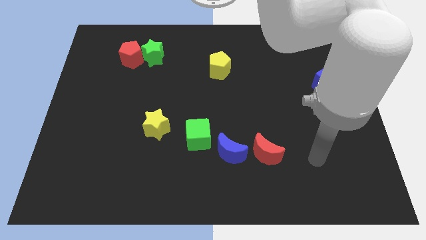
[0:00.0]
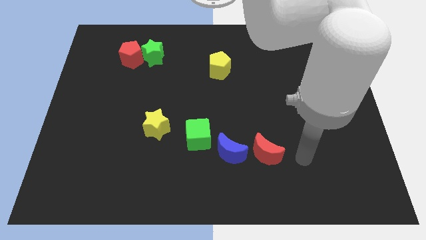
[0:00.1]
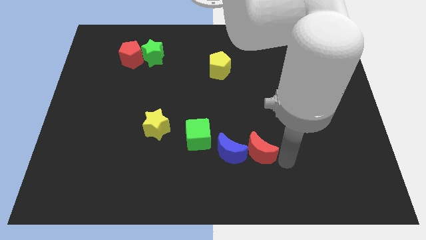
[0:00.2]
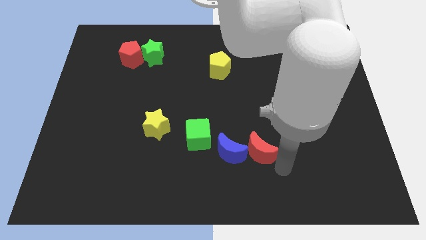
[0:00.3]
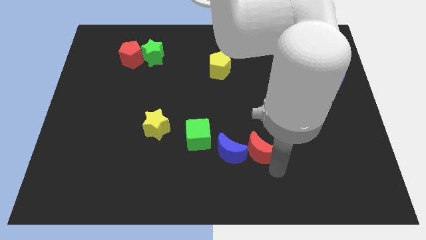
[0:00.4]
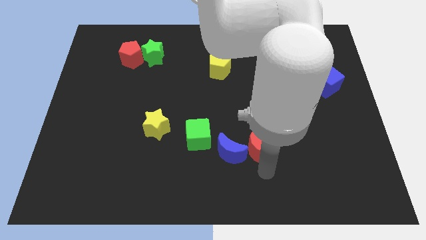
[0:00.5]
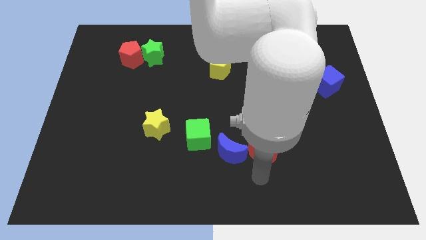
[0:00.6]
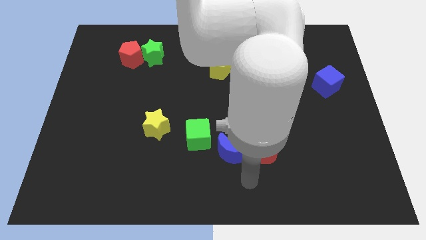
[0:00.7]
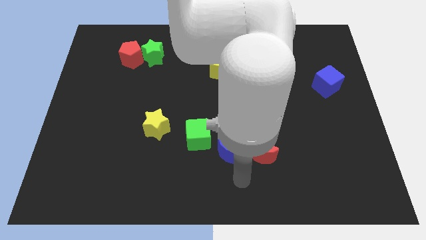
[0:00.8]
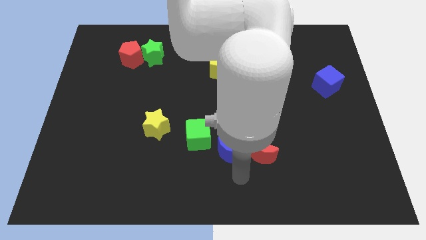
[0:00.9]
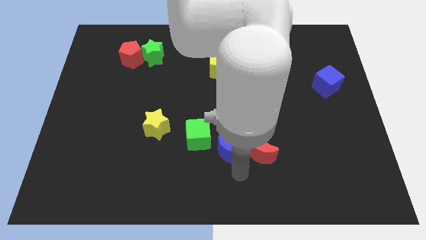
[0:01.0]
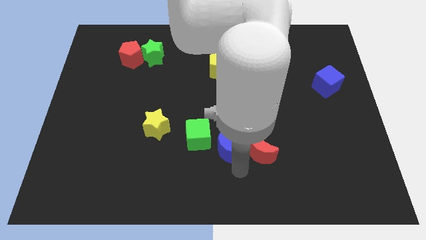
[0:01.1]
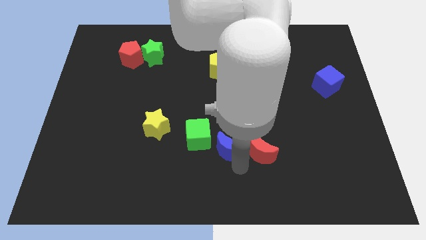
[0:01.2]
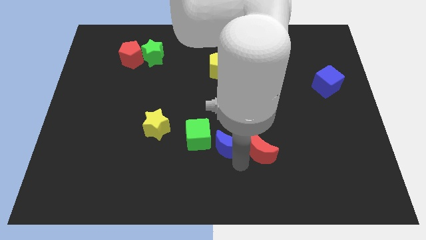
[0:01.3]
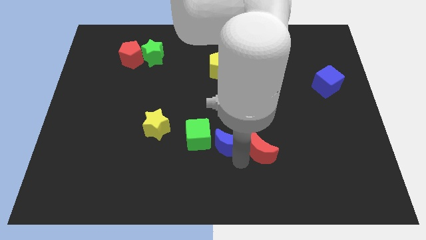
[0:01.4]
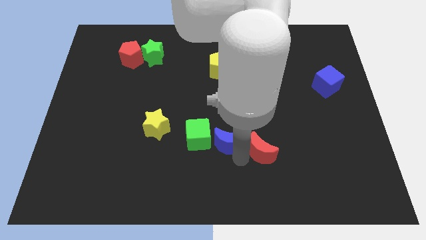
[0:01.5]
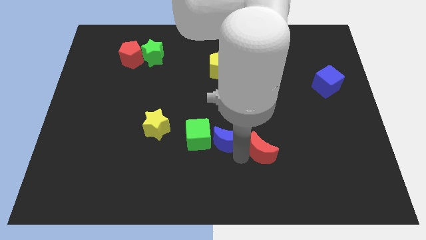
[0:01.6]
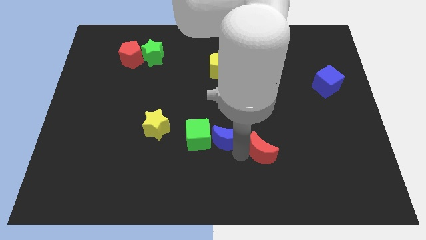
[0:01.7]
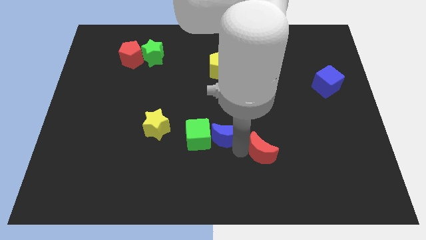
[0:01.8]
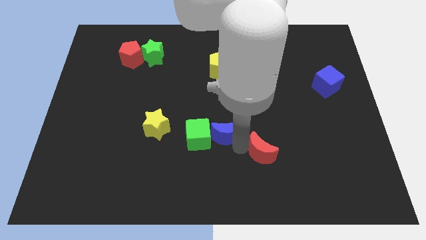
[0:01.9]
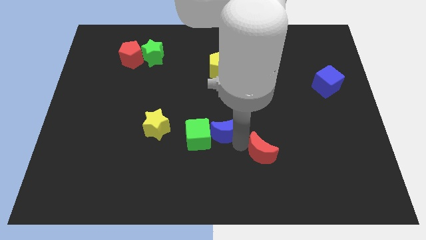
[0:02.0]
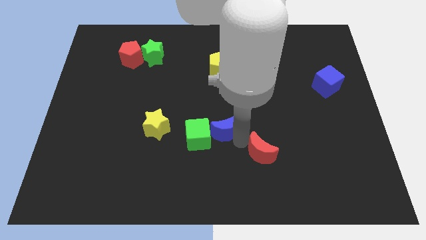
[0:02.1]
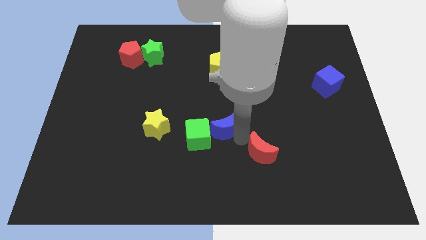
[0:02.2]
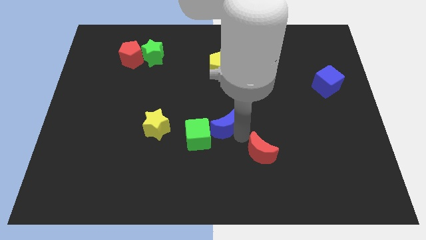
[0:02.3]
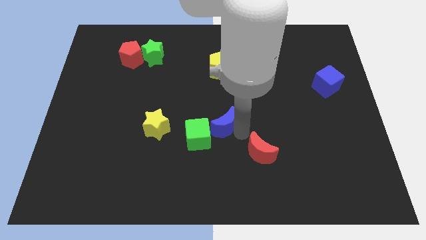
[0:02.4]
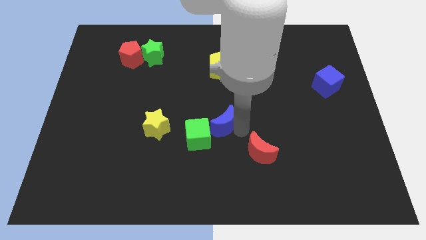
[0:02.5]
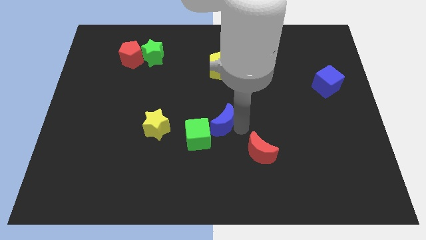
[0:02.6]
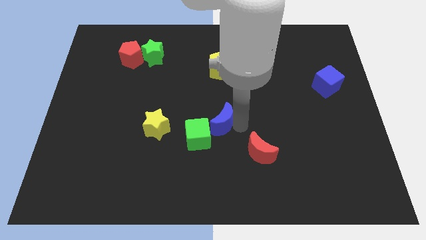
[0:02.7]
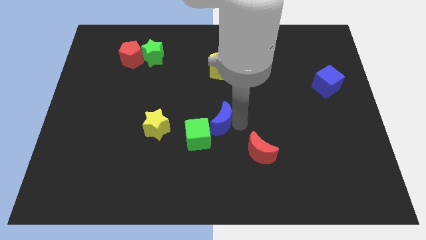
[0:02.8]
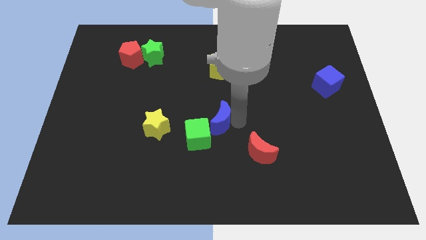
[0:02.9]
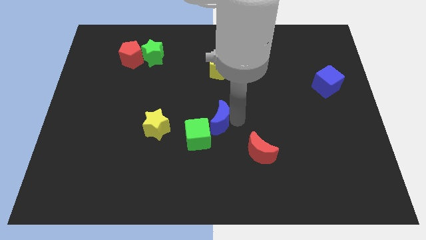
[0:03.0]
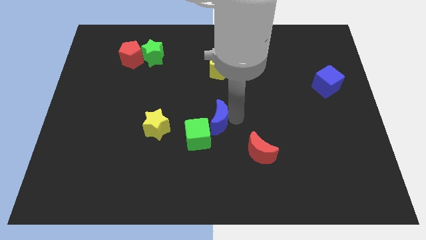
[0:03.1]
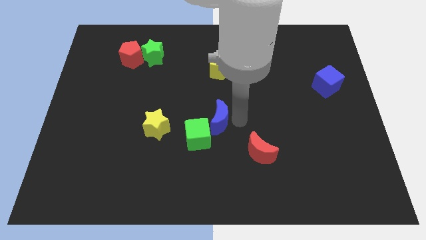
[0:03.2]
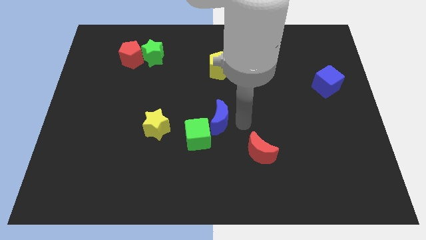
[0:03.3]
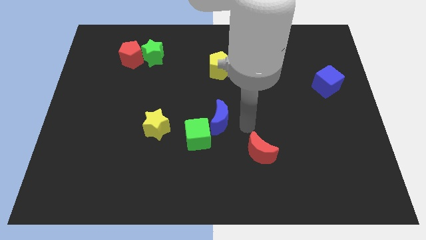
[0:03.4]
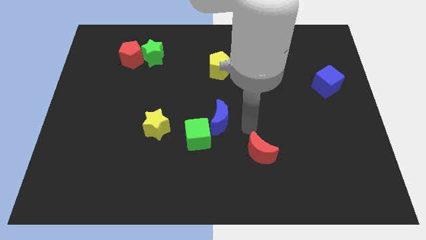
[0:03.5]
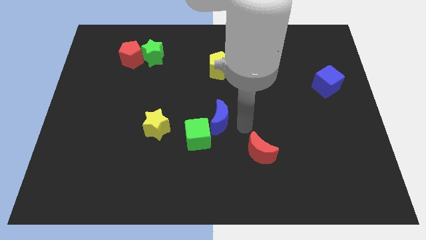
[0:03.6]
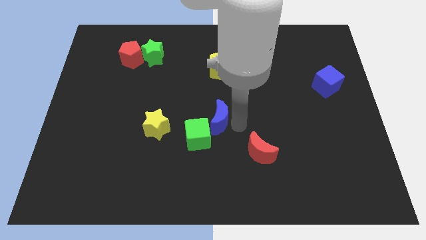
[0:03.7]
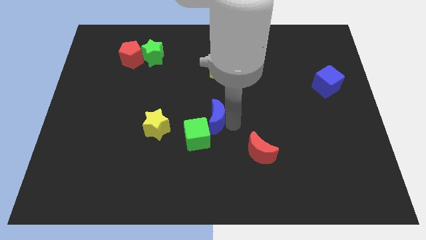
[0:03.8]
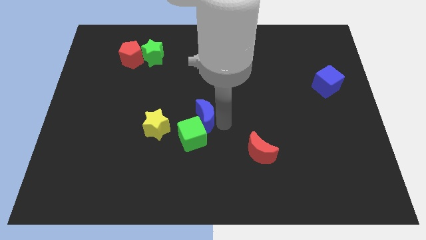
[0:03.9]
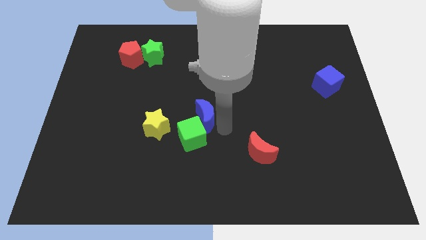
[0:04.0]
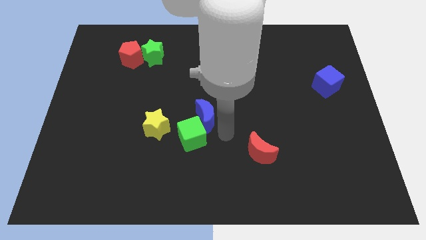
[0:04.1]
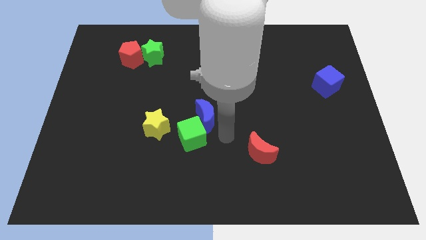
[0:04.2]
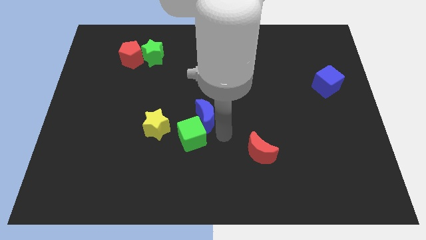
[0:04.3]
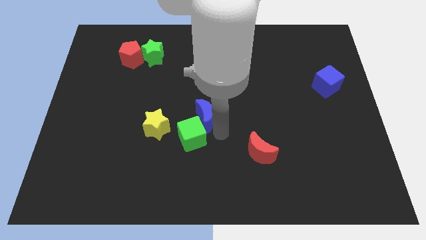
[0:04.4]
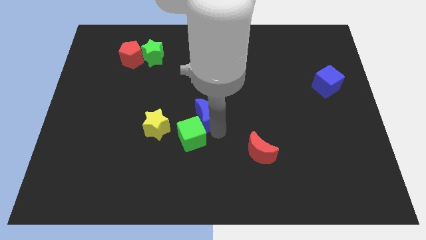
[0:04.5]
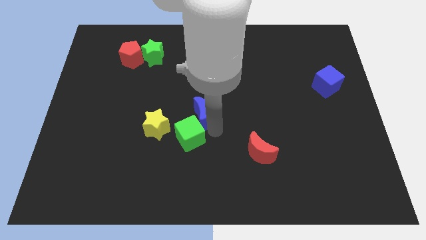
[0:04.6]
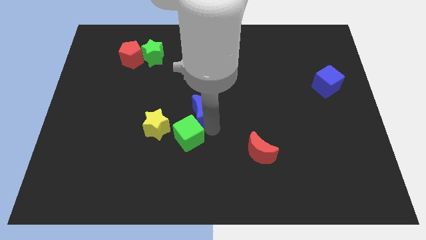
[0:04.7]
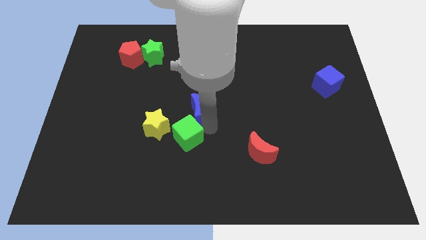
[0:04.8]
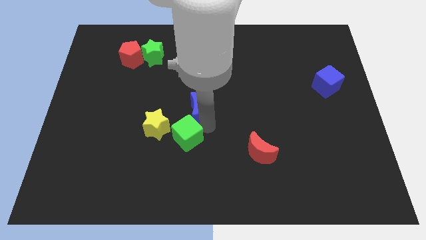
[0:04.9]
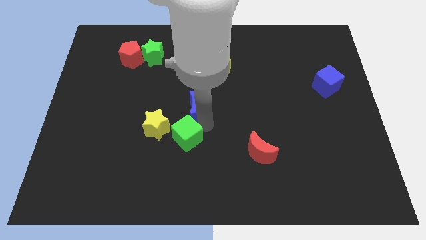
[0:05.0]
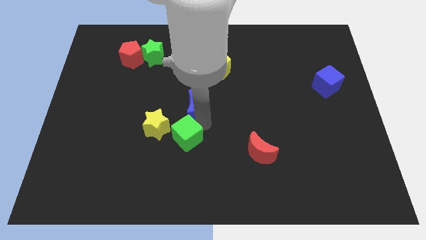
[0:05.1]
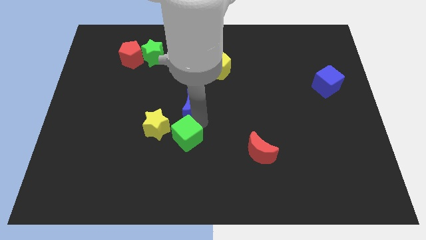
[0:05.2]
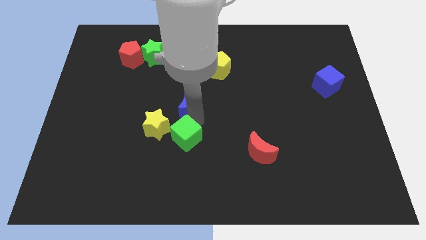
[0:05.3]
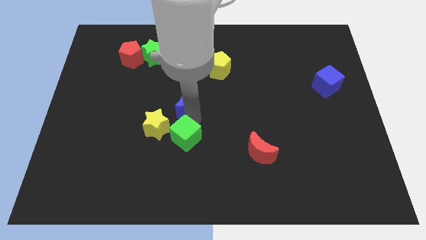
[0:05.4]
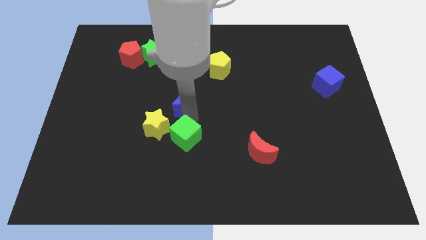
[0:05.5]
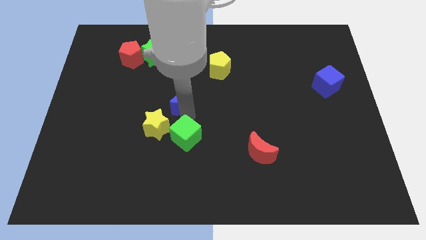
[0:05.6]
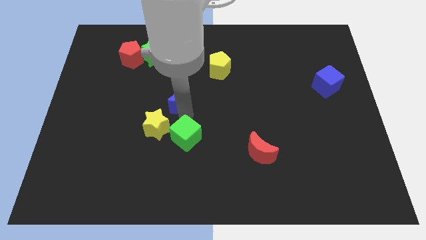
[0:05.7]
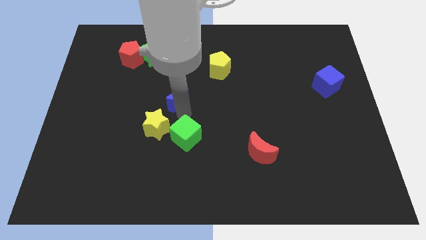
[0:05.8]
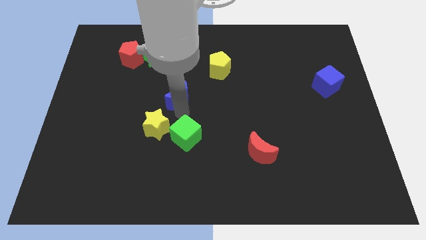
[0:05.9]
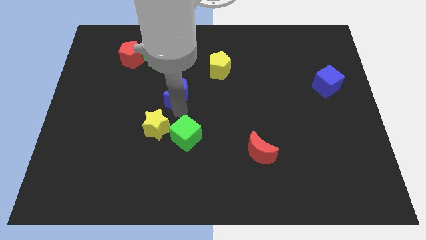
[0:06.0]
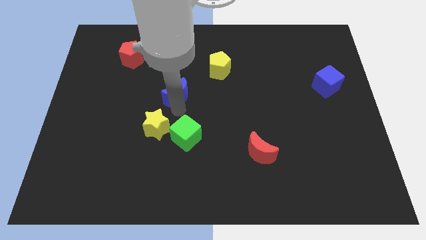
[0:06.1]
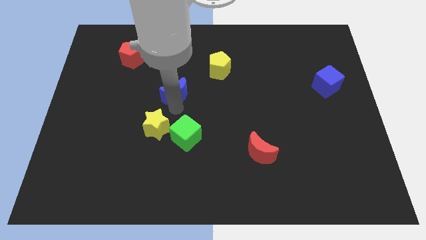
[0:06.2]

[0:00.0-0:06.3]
slide the blue moon upwards and to the left

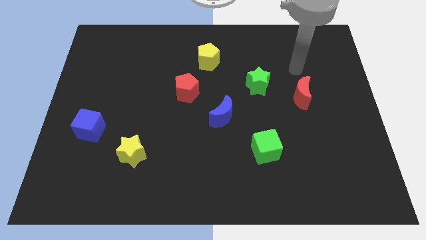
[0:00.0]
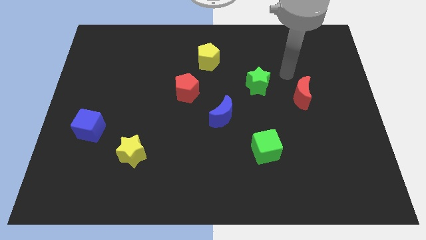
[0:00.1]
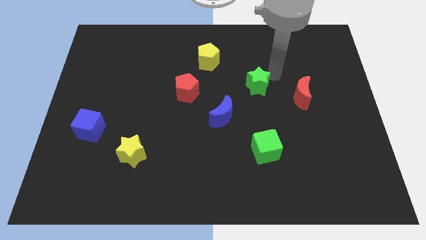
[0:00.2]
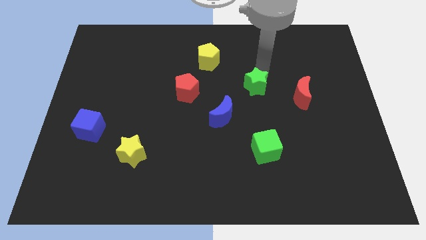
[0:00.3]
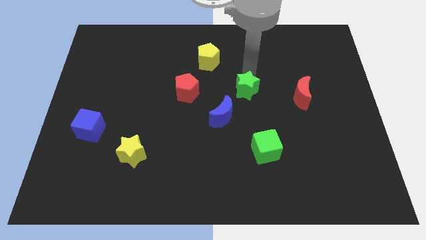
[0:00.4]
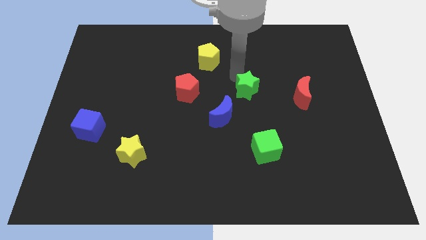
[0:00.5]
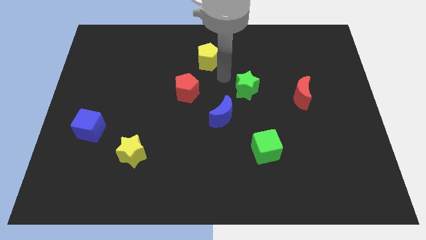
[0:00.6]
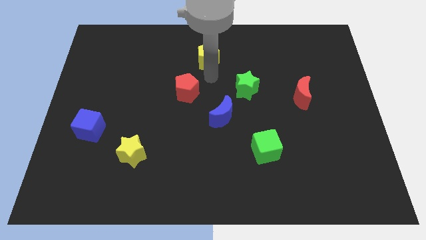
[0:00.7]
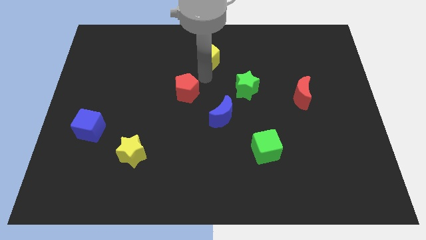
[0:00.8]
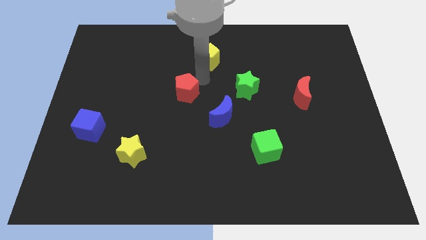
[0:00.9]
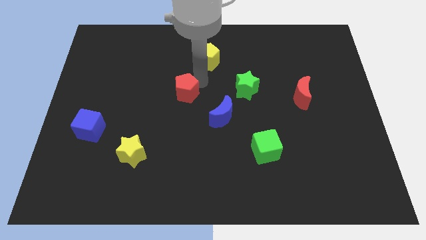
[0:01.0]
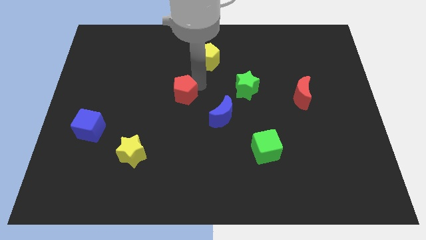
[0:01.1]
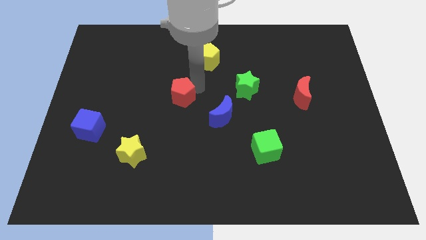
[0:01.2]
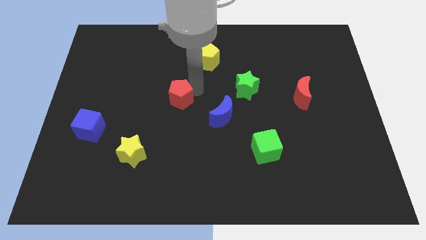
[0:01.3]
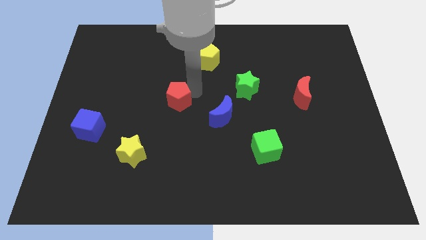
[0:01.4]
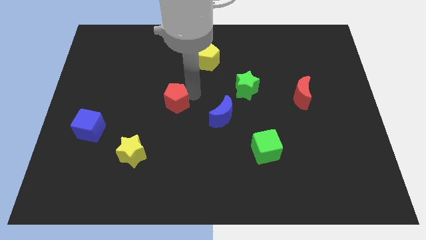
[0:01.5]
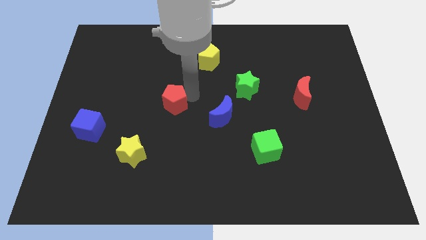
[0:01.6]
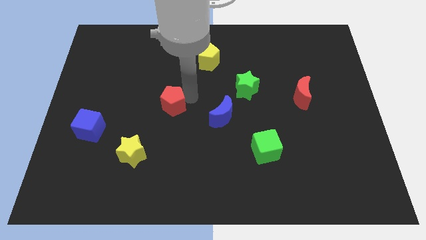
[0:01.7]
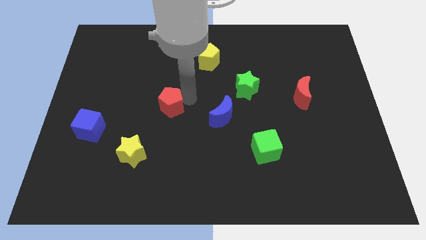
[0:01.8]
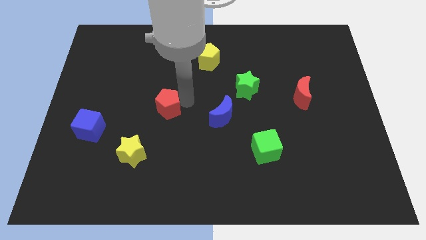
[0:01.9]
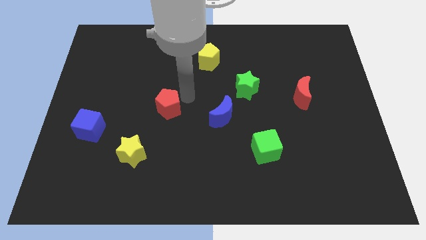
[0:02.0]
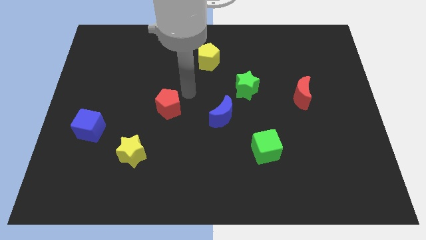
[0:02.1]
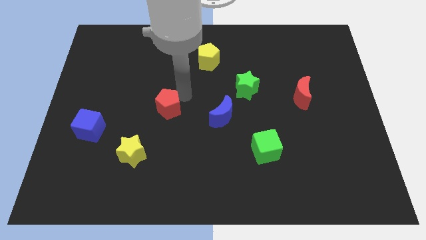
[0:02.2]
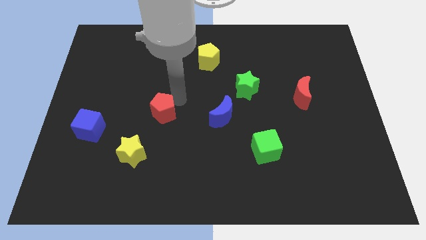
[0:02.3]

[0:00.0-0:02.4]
push the red pentagon diagonally downwards and to the left slightly
